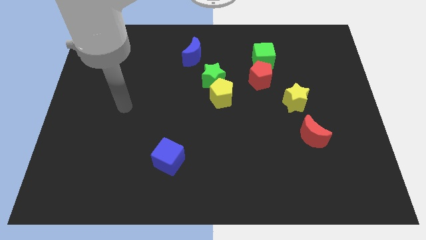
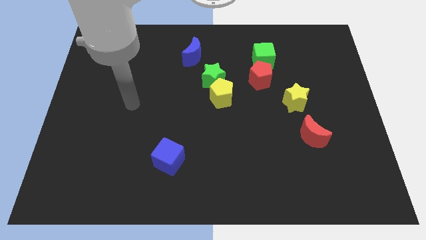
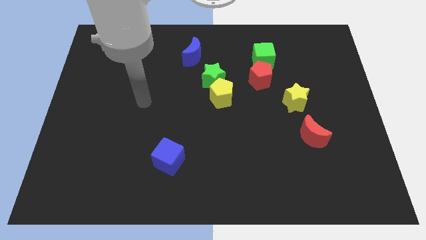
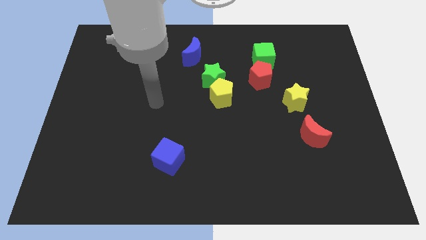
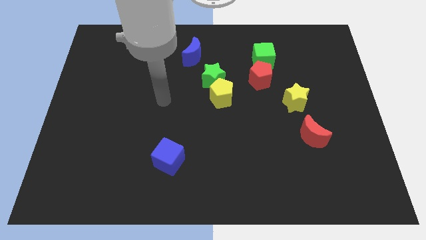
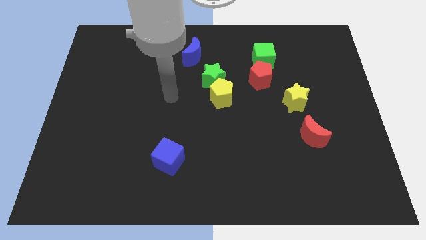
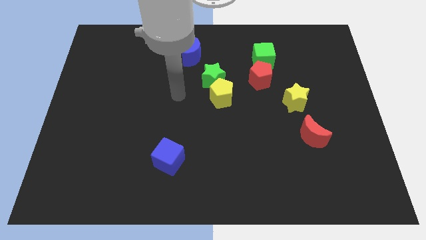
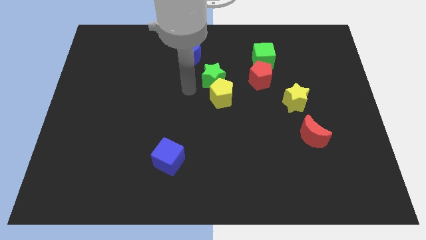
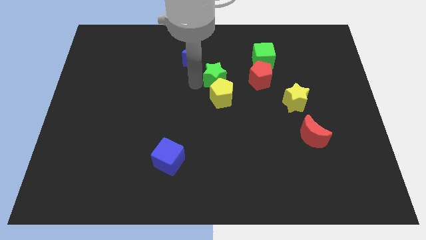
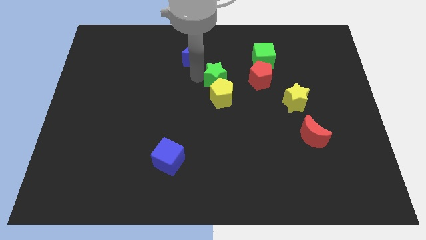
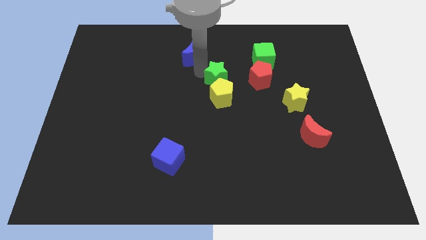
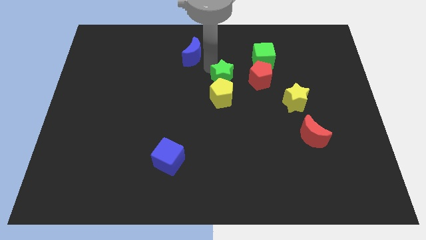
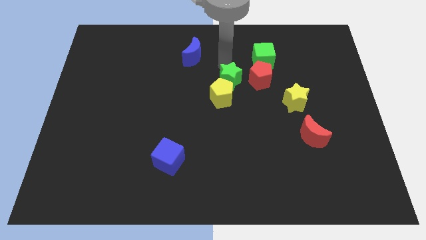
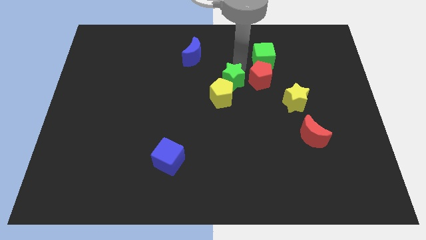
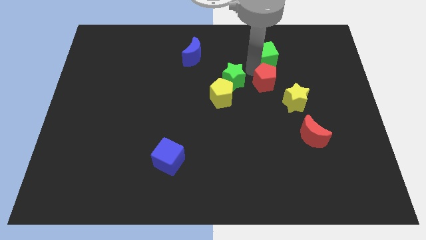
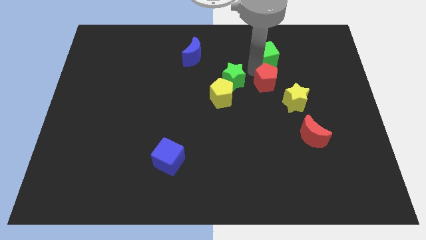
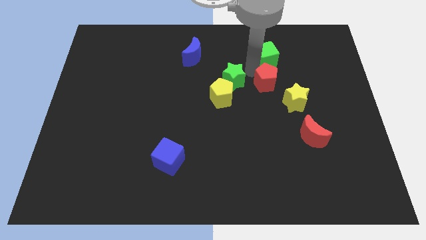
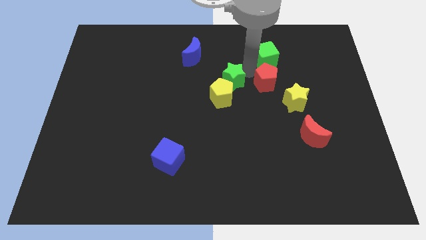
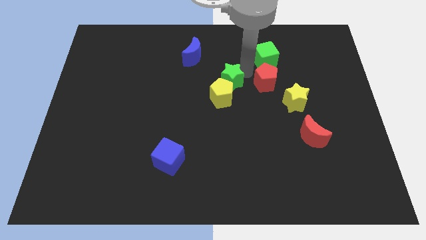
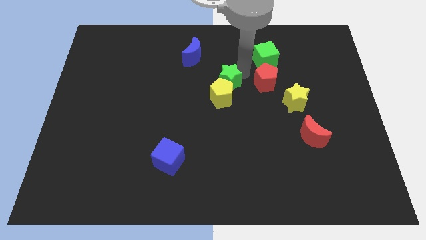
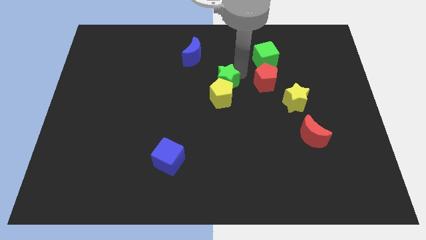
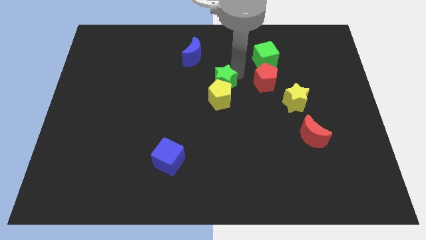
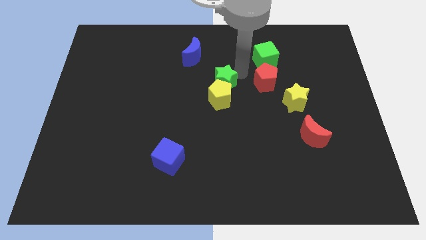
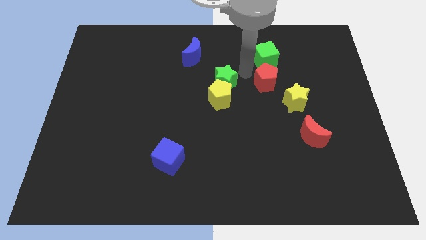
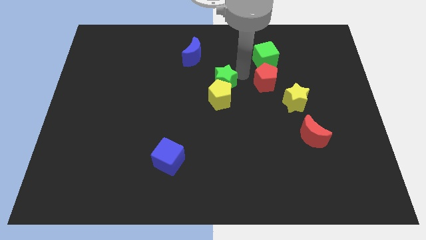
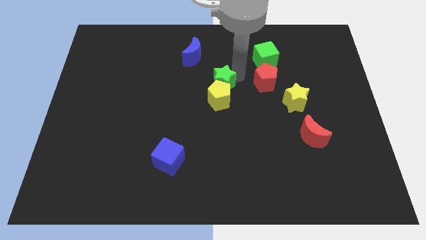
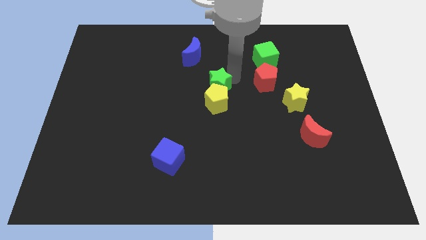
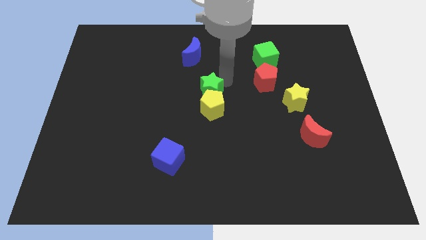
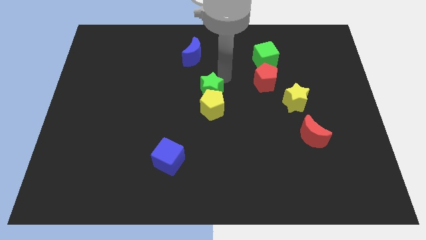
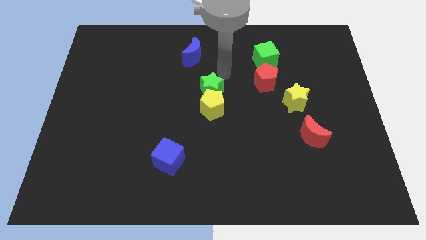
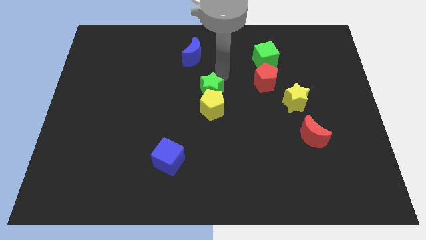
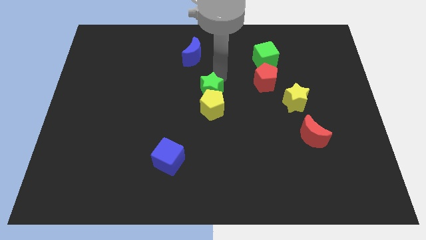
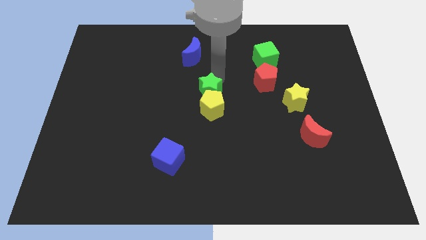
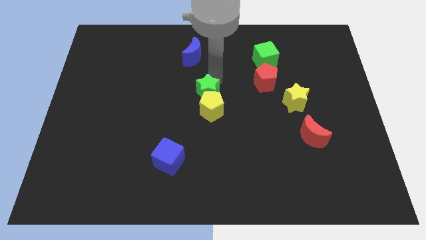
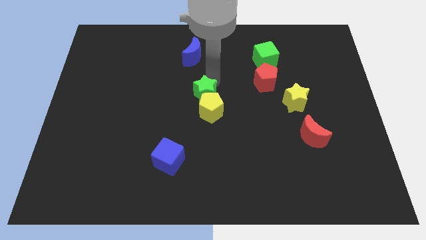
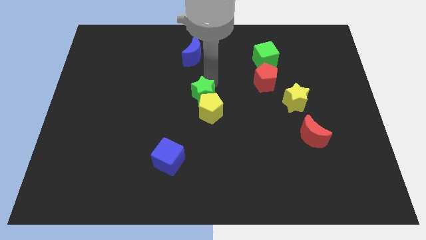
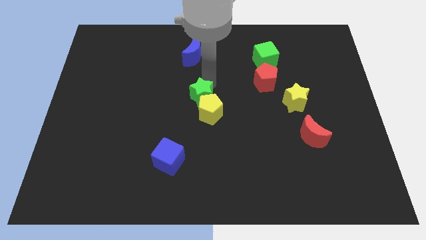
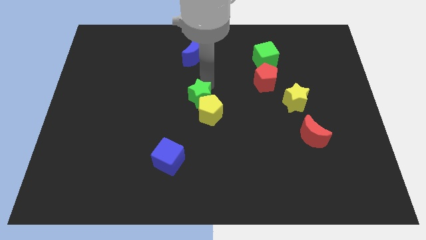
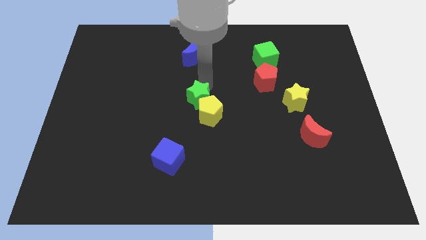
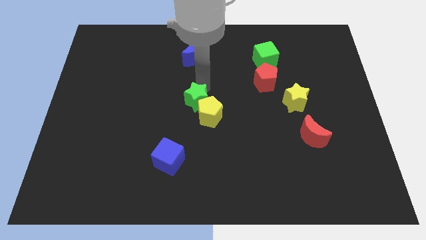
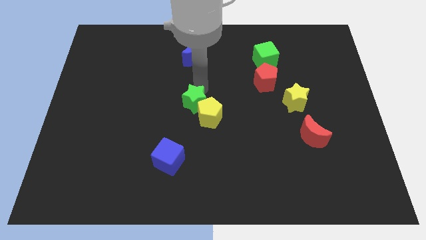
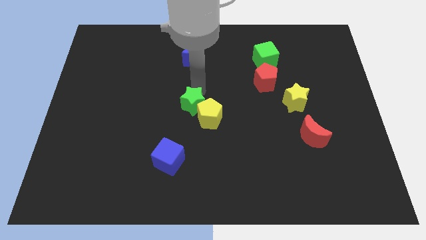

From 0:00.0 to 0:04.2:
slightly move the green star down

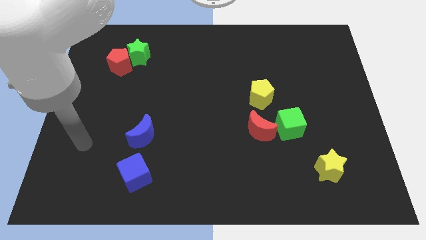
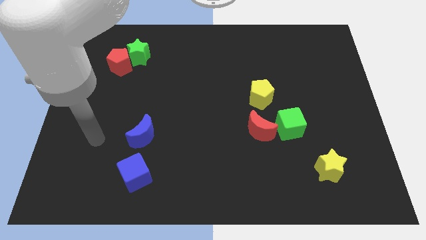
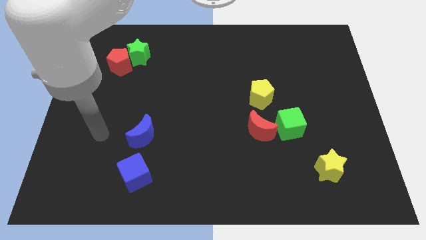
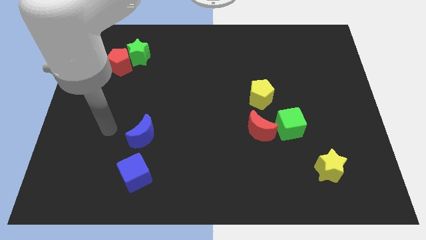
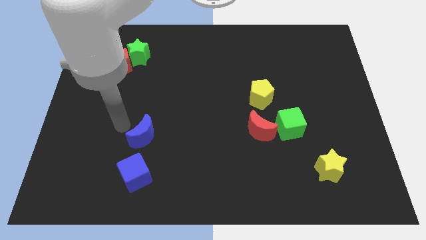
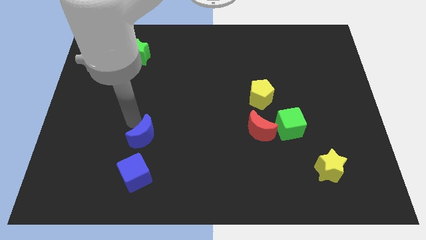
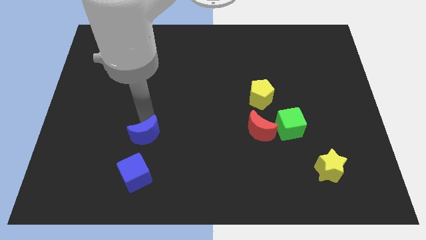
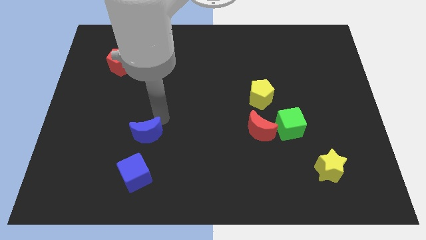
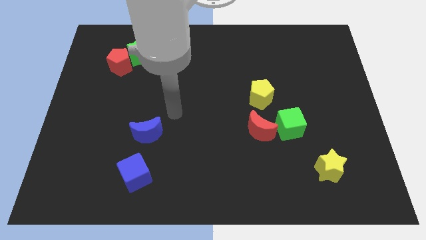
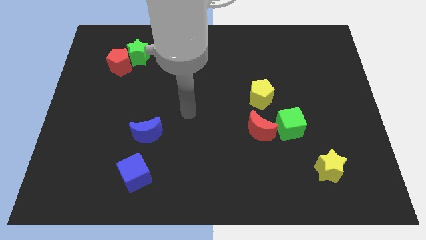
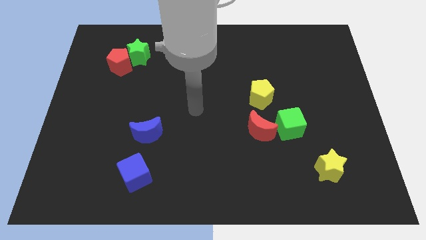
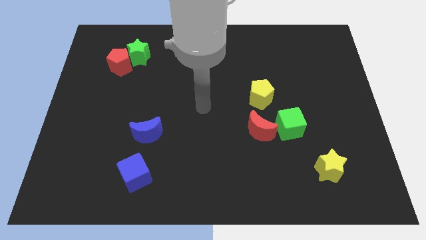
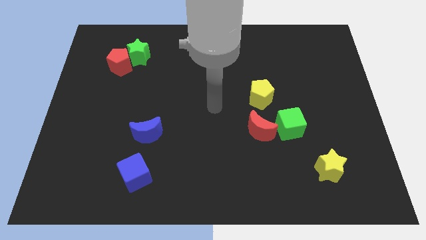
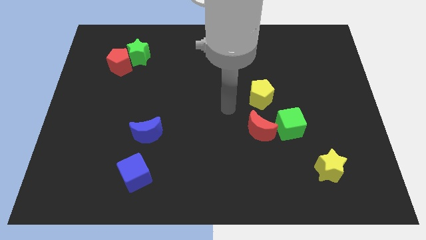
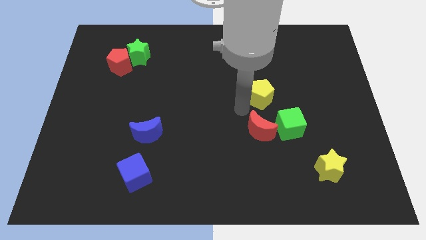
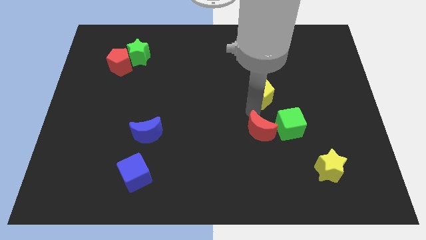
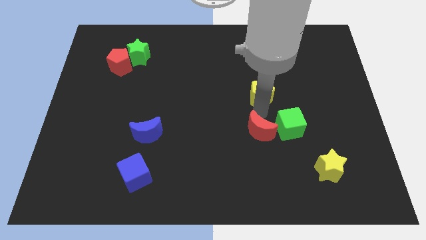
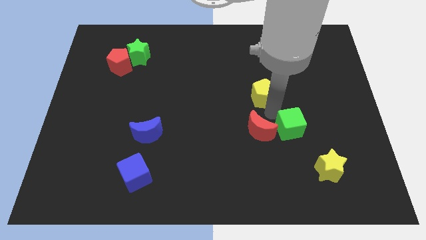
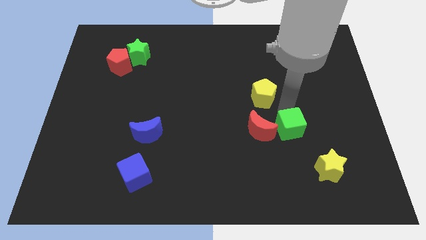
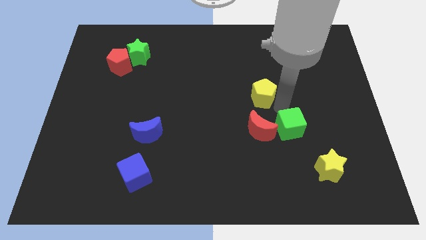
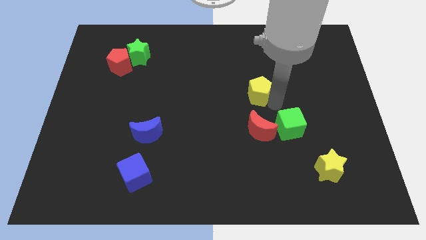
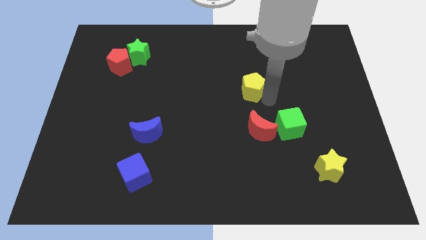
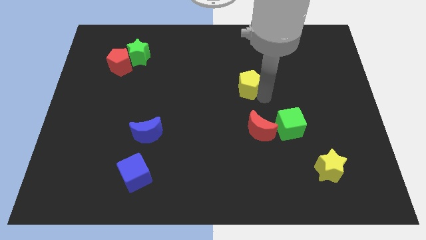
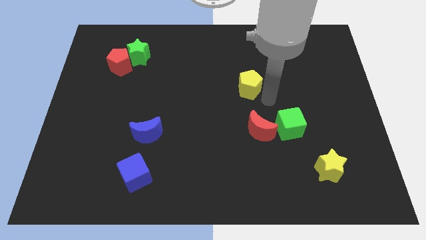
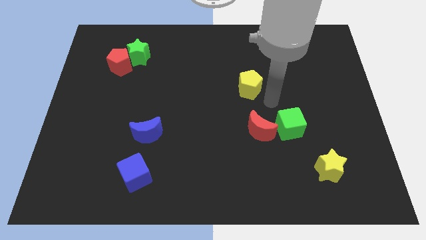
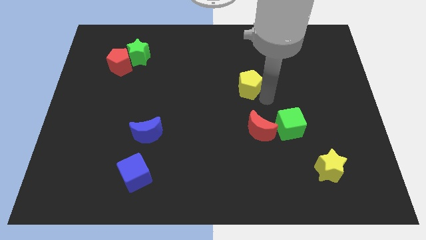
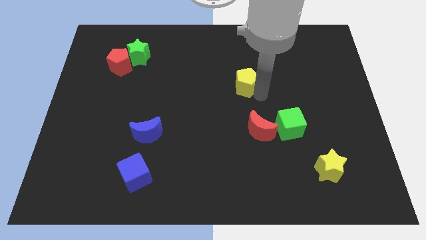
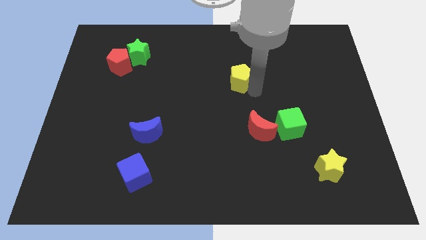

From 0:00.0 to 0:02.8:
push the yellow pentagon a little bit up and to the left diagonally

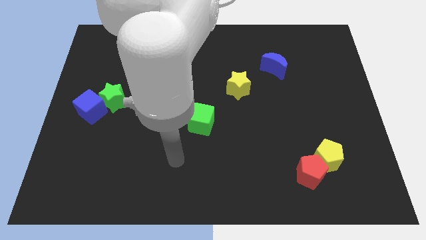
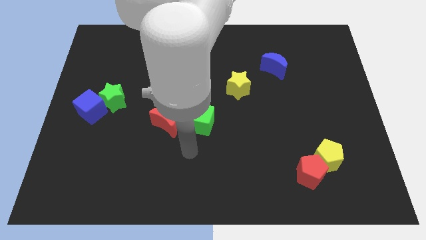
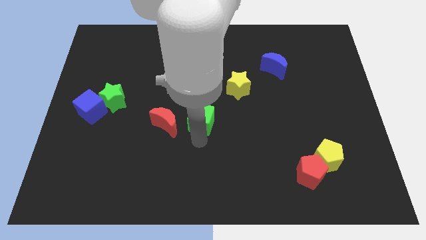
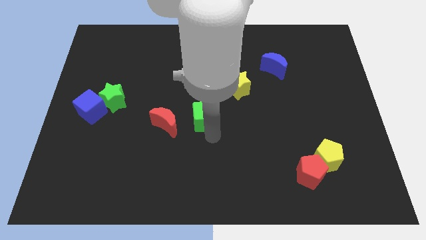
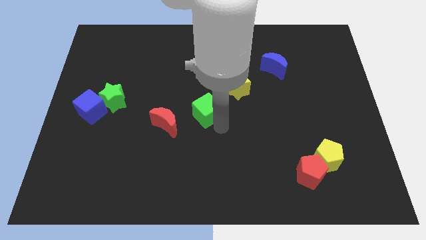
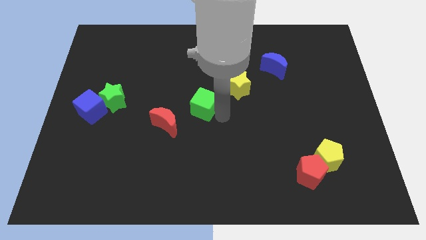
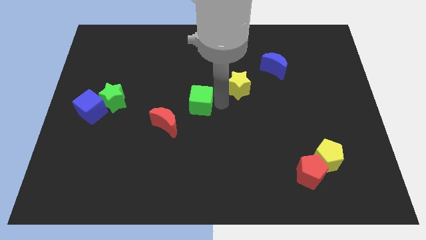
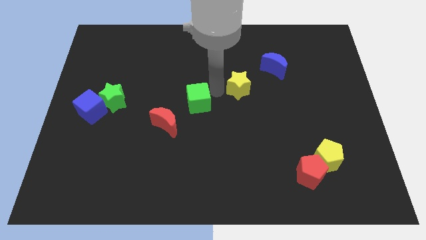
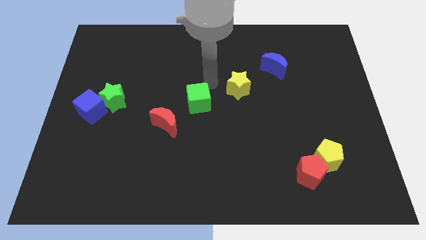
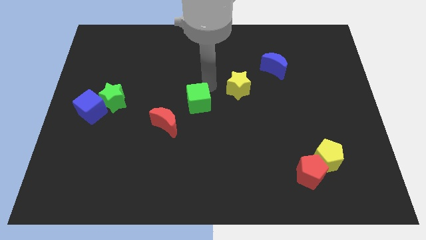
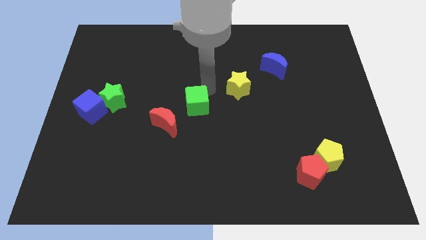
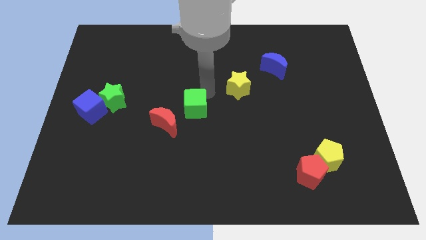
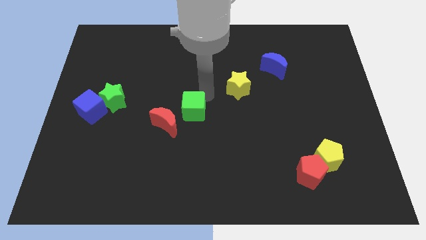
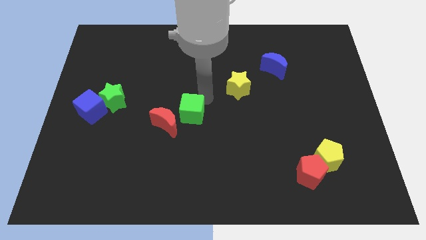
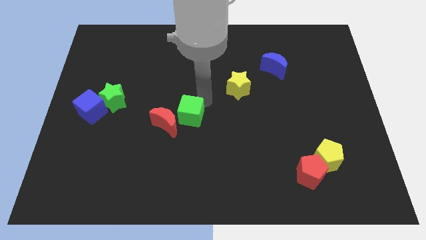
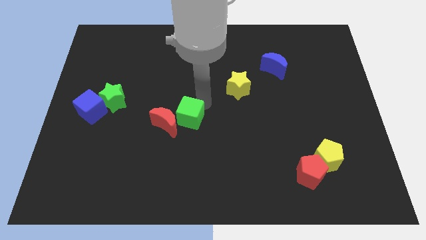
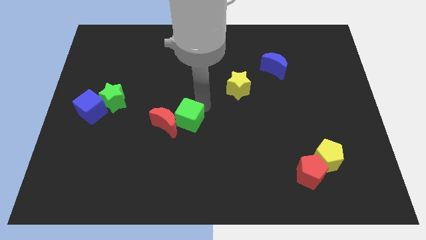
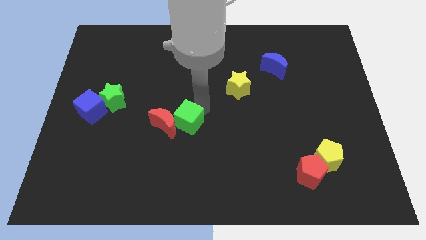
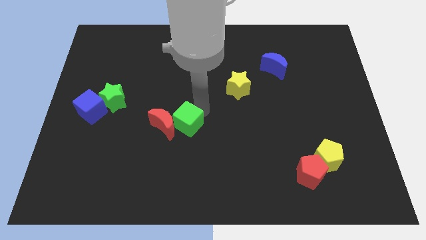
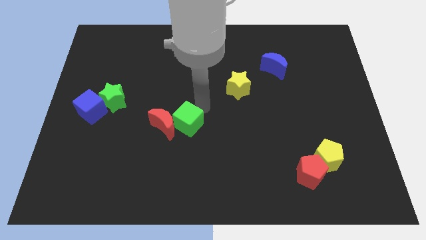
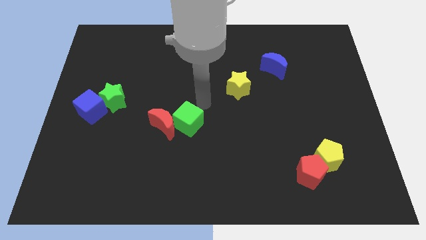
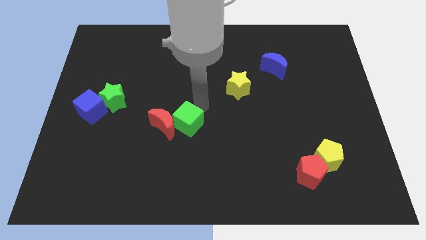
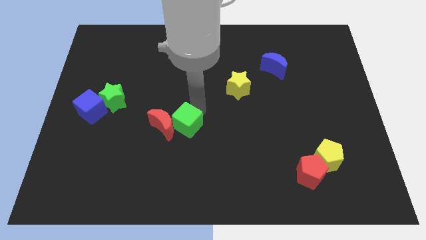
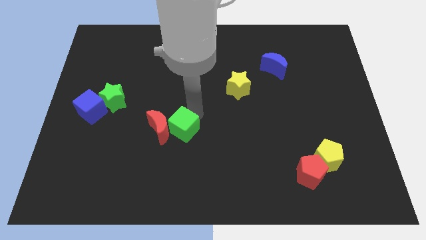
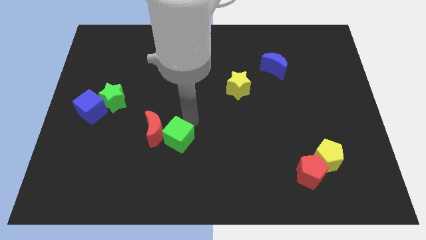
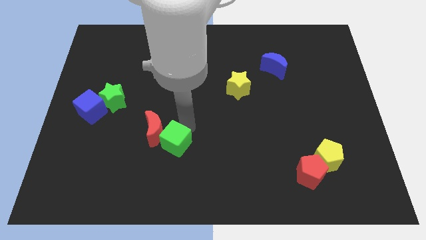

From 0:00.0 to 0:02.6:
slightly slide the green cube down and to the left diagonally
